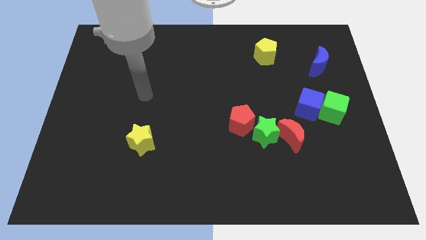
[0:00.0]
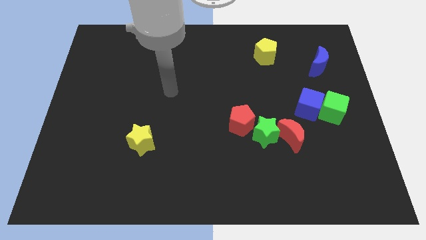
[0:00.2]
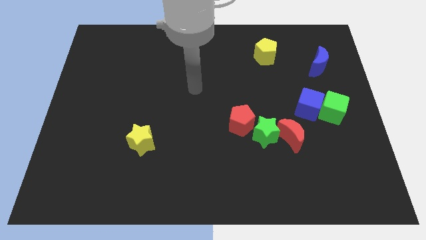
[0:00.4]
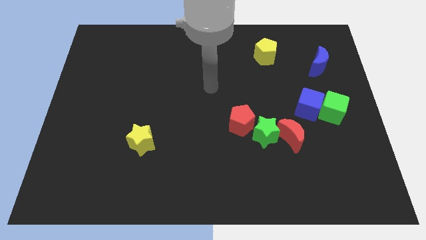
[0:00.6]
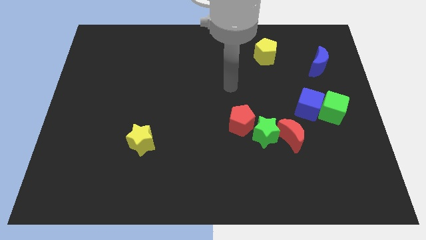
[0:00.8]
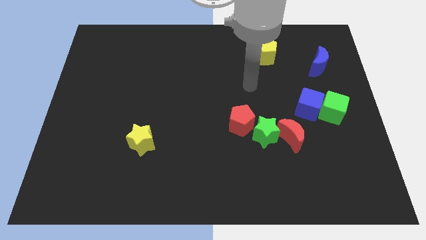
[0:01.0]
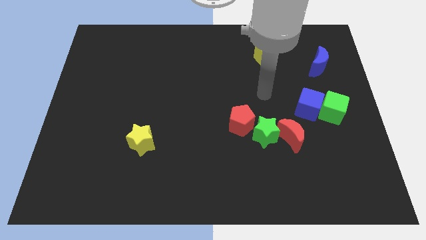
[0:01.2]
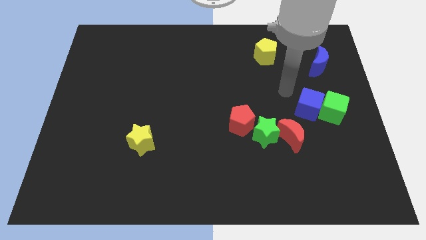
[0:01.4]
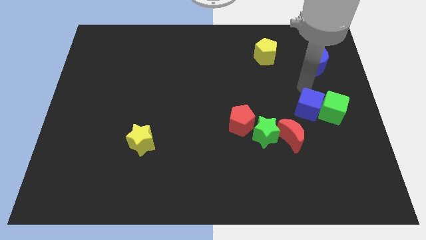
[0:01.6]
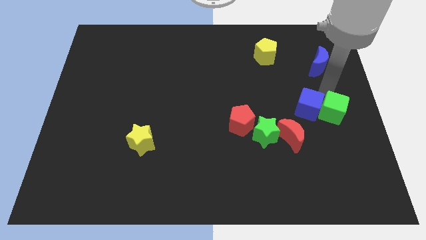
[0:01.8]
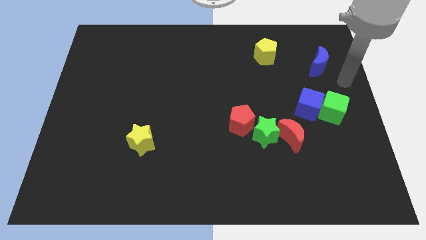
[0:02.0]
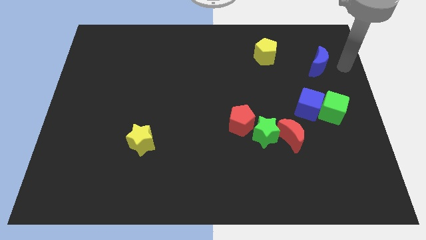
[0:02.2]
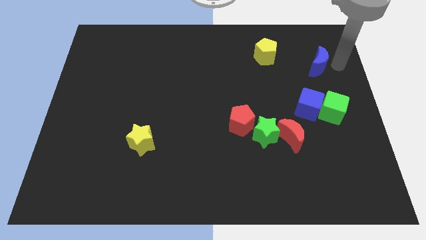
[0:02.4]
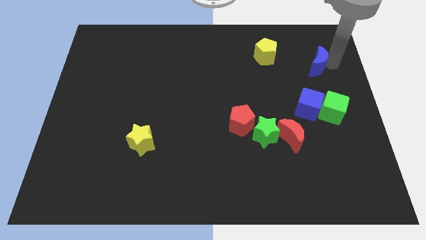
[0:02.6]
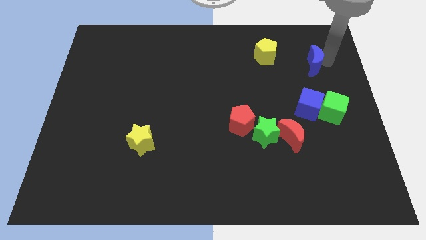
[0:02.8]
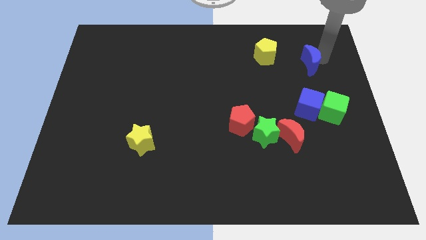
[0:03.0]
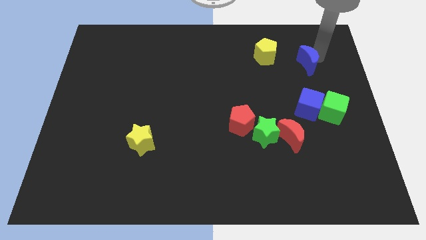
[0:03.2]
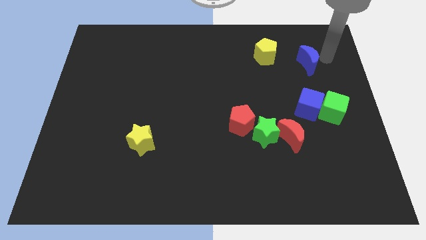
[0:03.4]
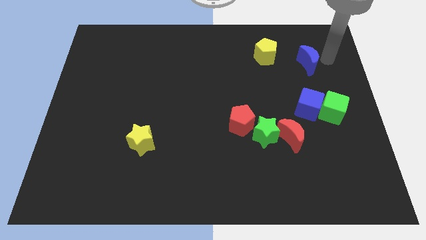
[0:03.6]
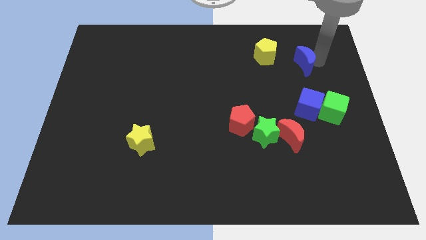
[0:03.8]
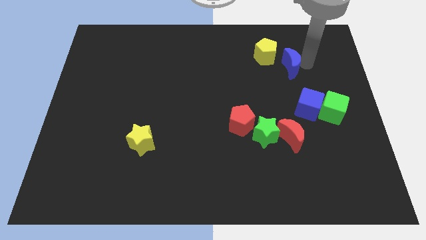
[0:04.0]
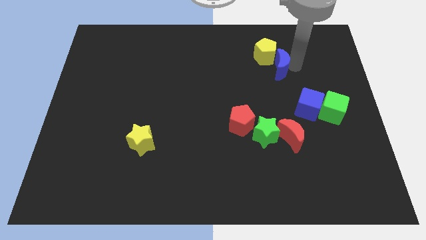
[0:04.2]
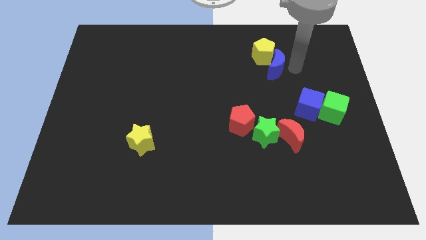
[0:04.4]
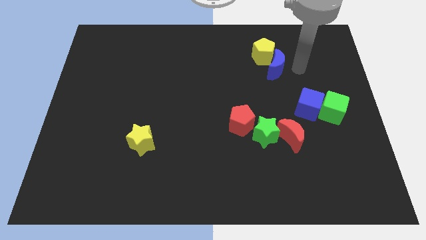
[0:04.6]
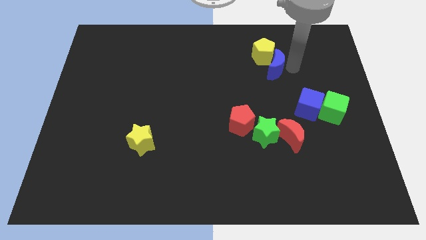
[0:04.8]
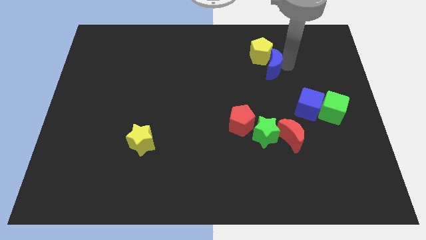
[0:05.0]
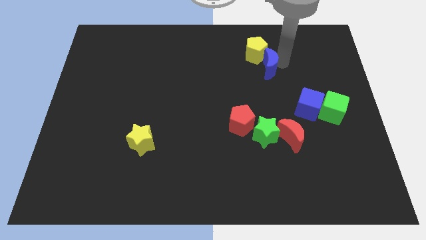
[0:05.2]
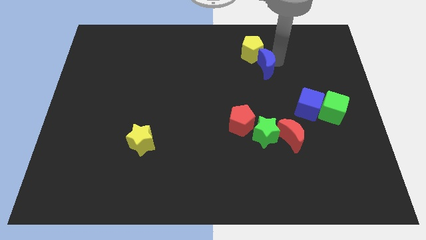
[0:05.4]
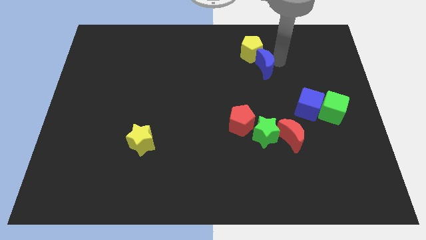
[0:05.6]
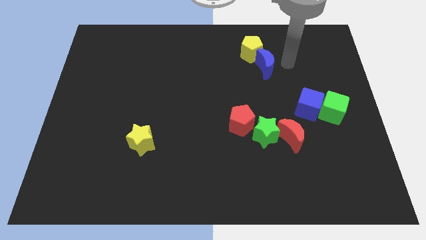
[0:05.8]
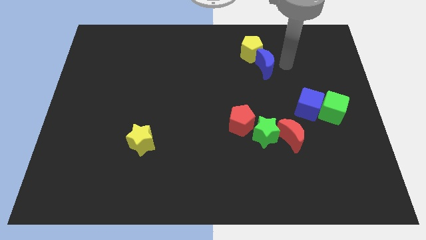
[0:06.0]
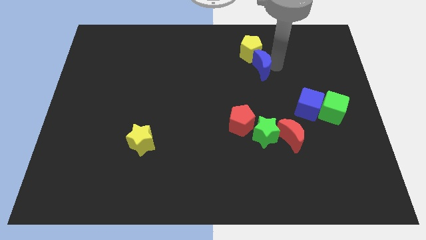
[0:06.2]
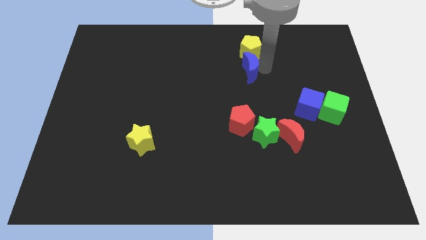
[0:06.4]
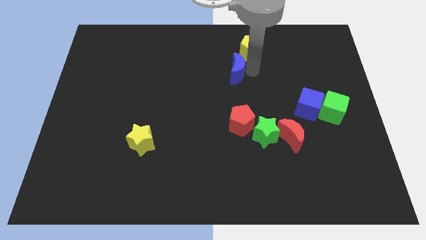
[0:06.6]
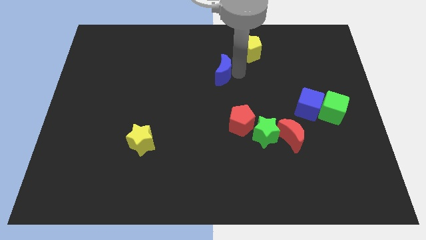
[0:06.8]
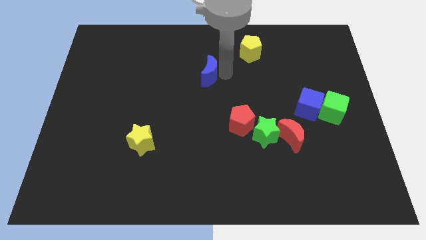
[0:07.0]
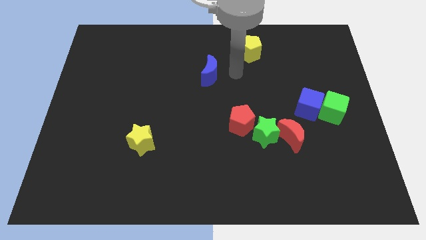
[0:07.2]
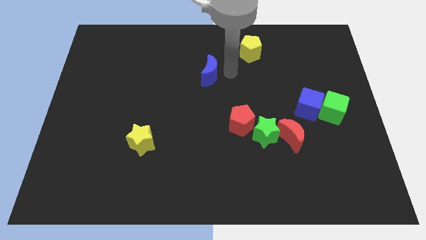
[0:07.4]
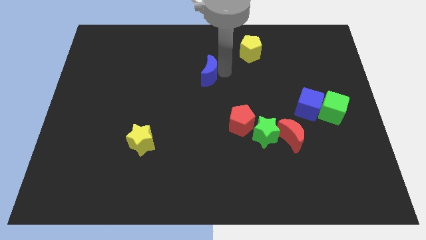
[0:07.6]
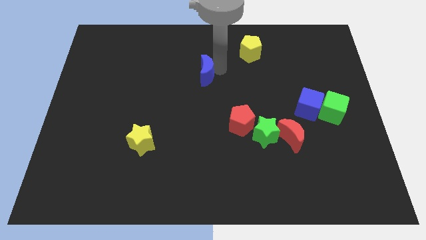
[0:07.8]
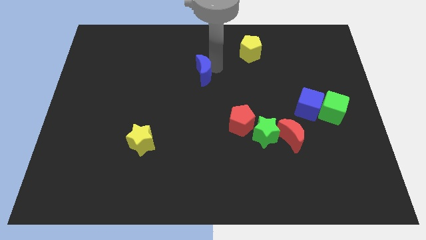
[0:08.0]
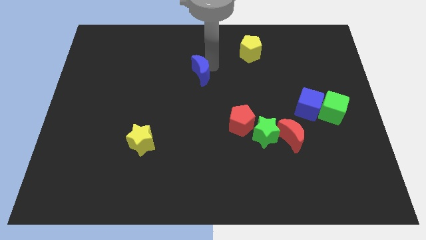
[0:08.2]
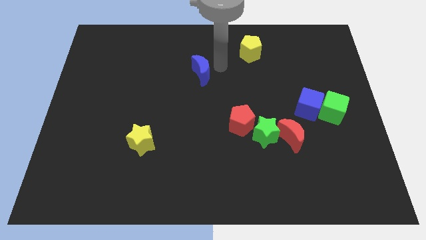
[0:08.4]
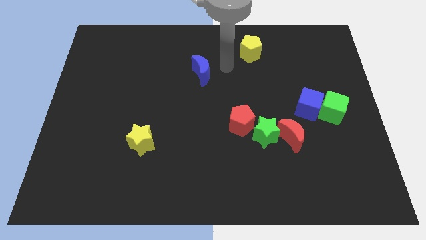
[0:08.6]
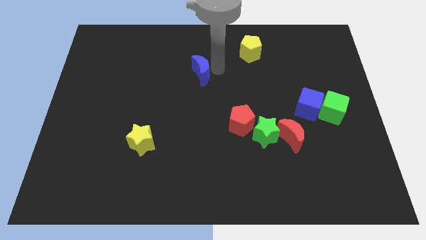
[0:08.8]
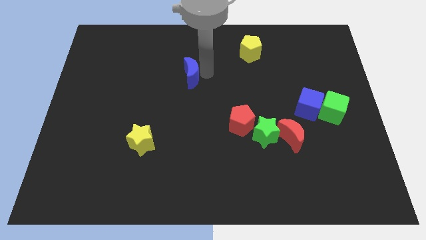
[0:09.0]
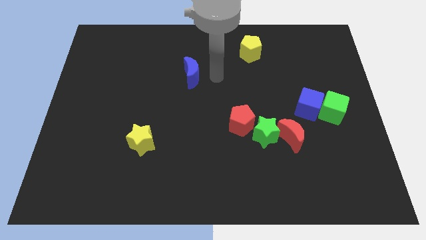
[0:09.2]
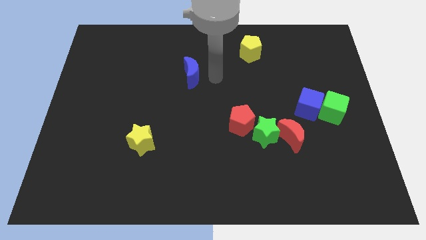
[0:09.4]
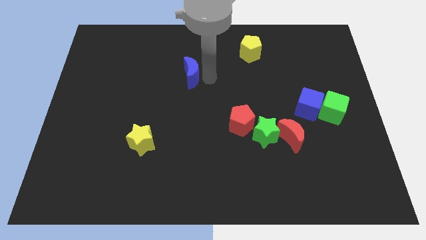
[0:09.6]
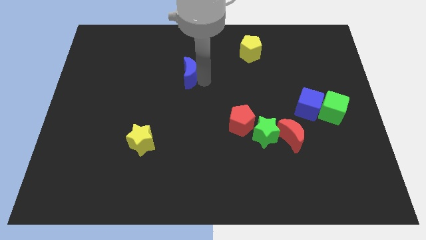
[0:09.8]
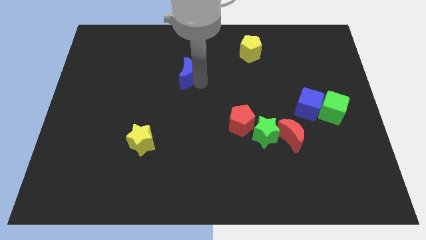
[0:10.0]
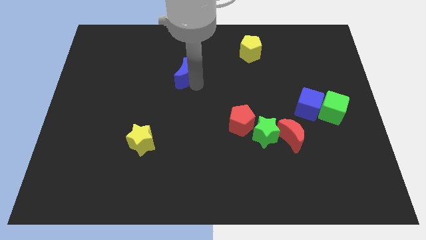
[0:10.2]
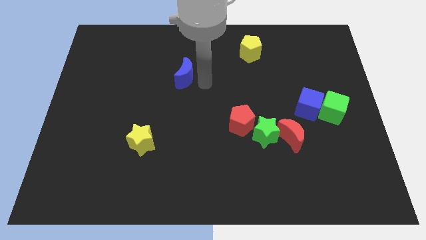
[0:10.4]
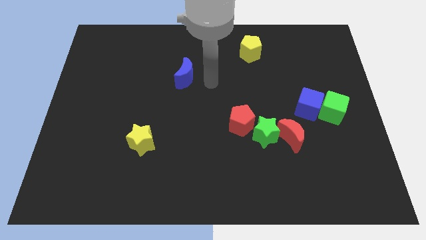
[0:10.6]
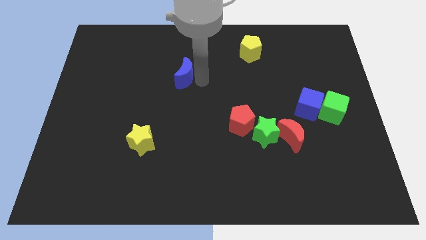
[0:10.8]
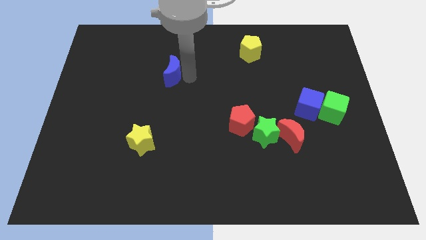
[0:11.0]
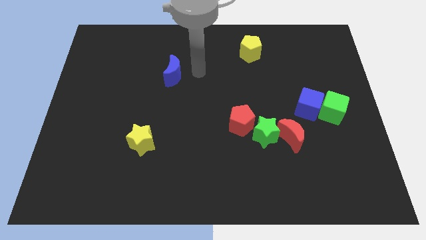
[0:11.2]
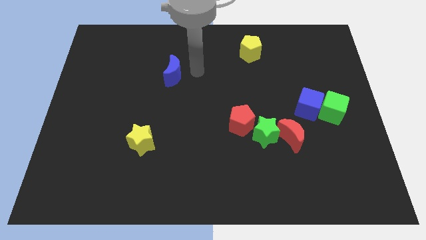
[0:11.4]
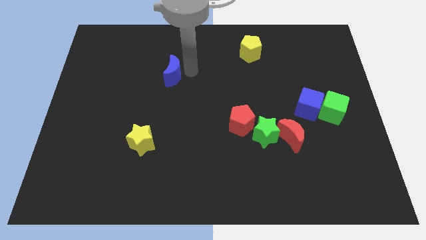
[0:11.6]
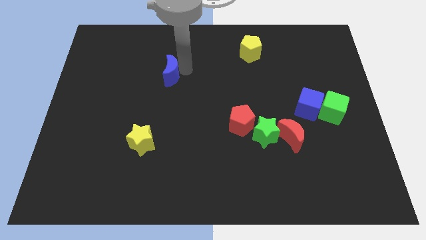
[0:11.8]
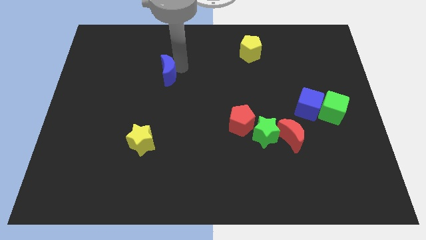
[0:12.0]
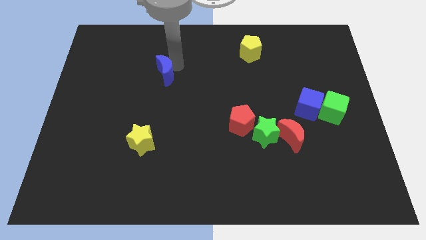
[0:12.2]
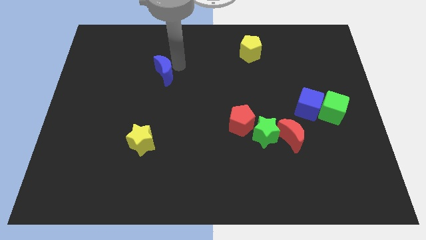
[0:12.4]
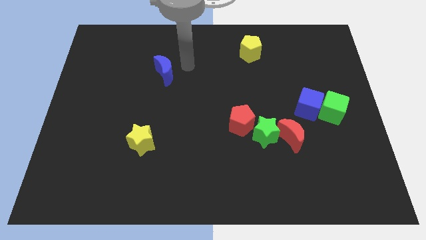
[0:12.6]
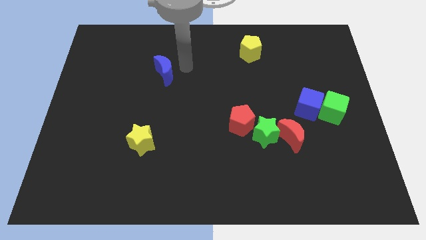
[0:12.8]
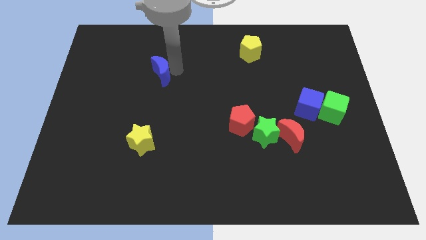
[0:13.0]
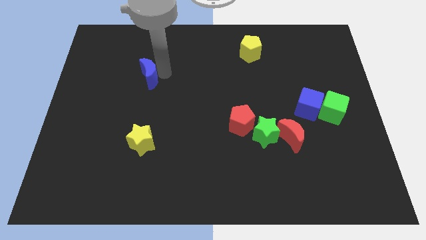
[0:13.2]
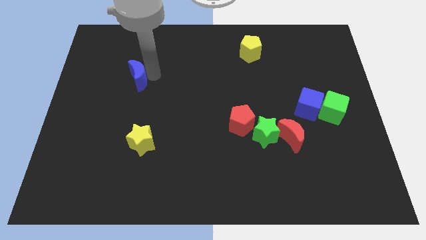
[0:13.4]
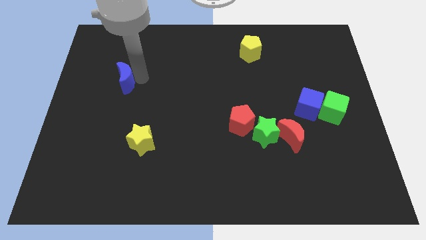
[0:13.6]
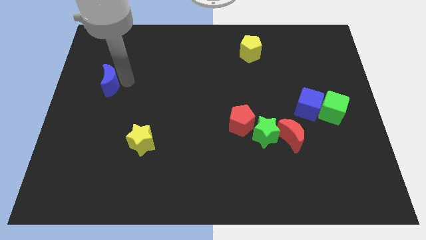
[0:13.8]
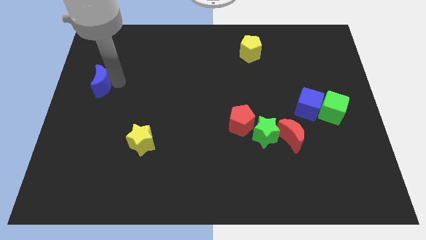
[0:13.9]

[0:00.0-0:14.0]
move the blue moon to the center left
